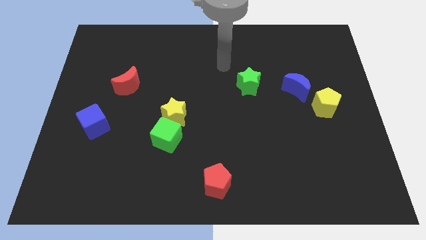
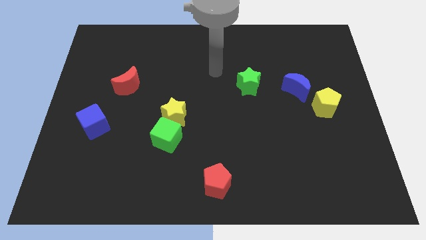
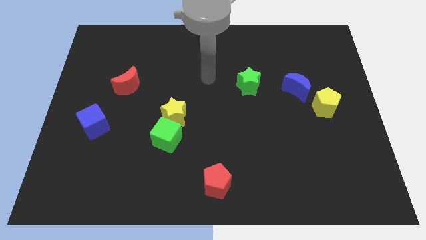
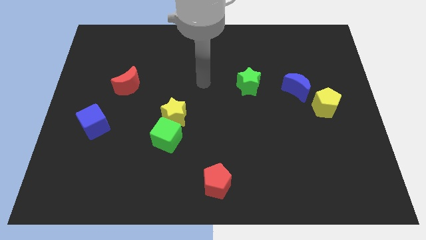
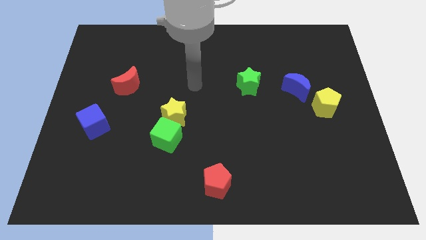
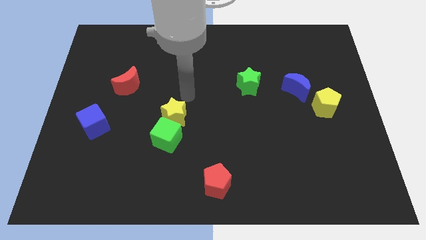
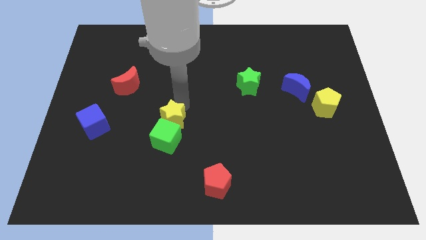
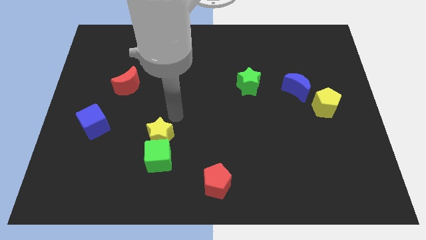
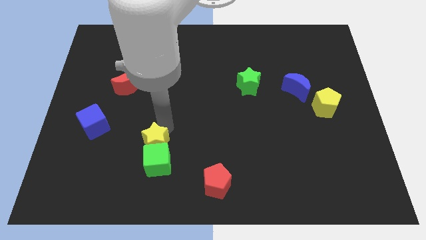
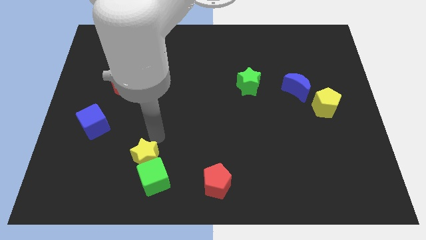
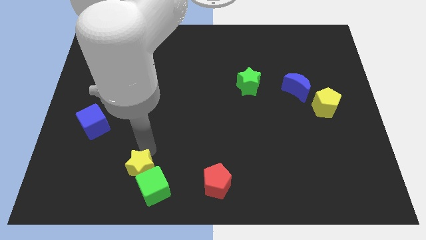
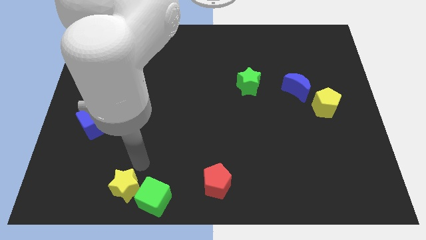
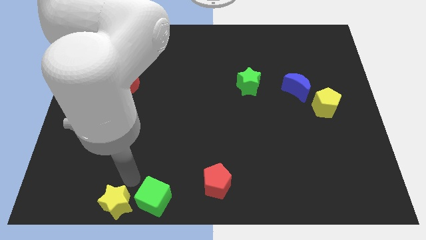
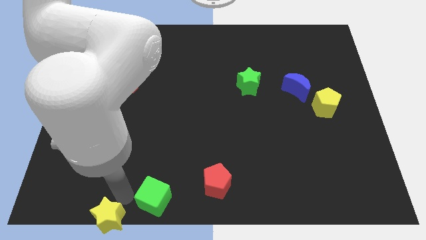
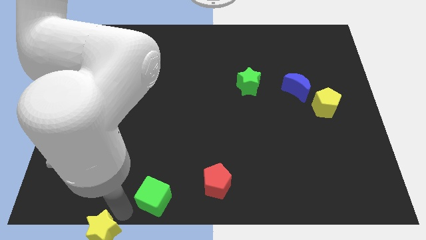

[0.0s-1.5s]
pull the green cube apart from the yellow star

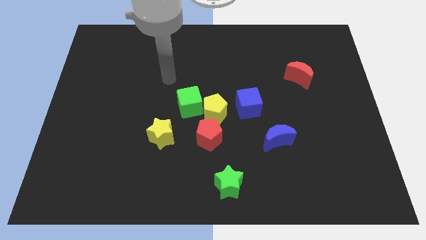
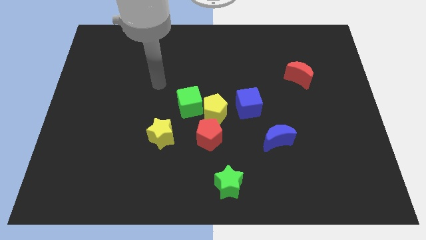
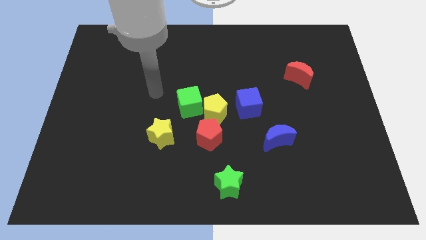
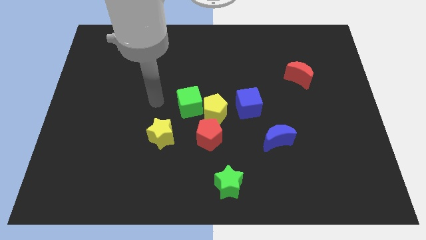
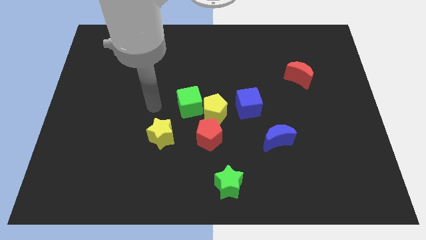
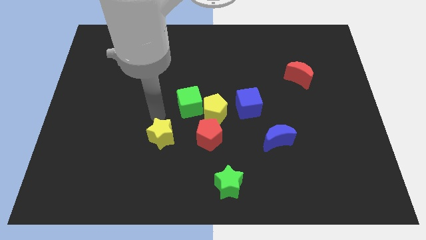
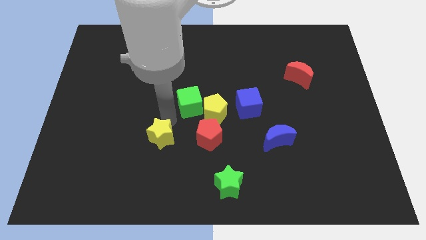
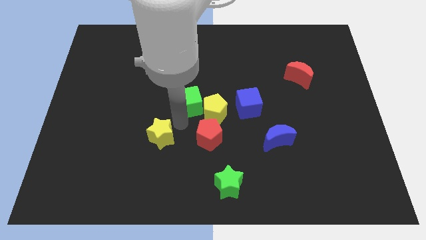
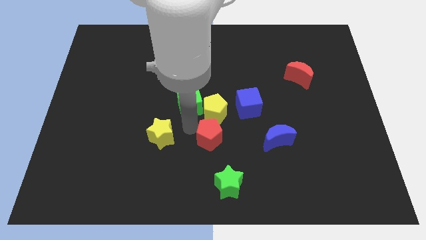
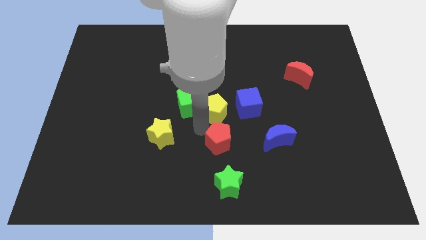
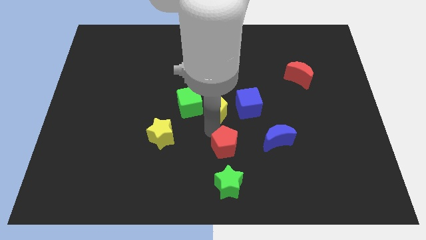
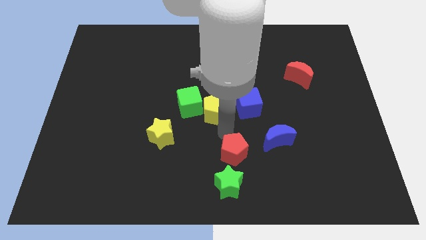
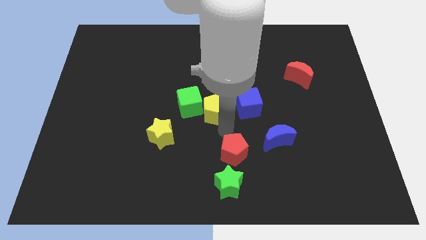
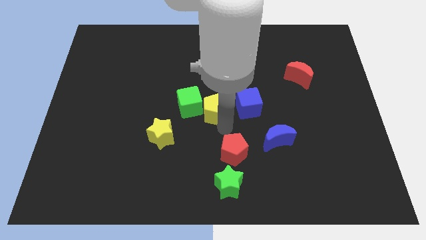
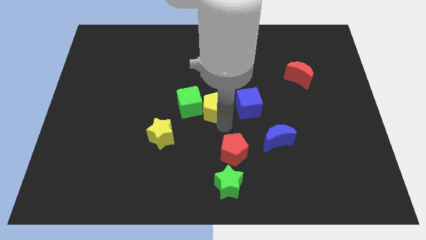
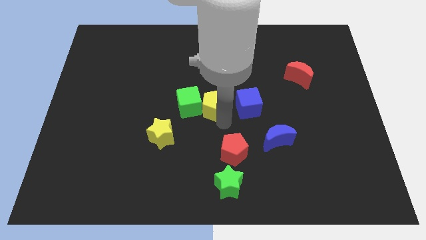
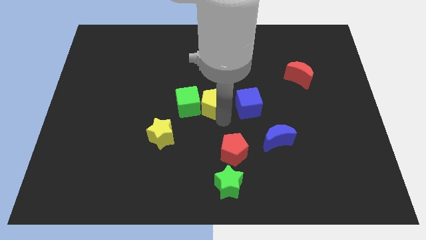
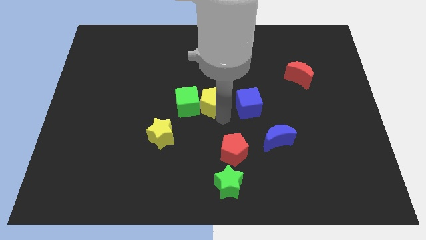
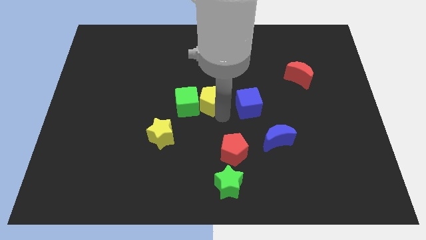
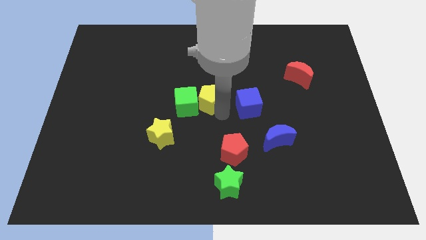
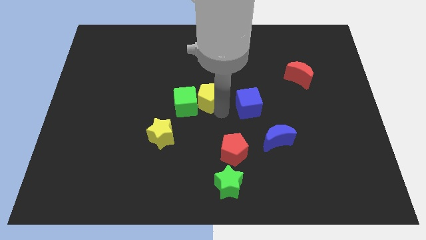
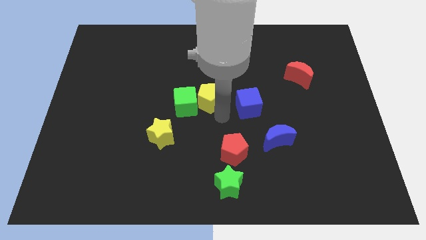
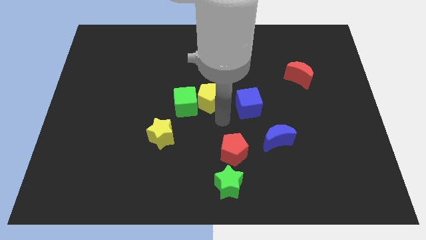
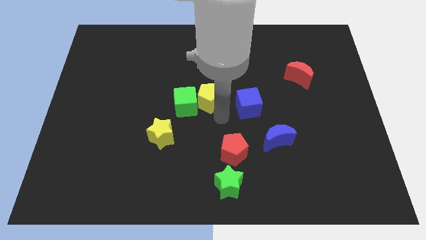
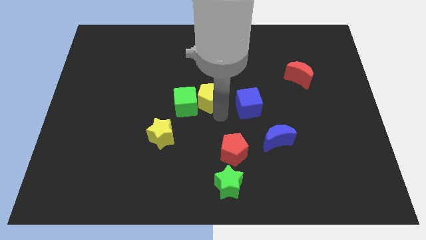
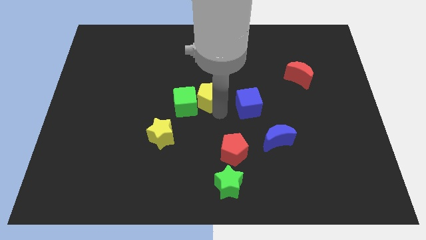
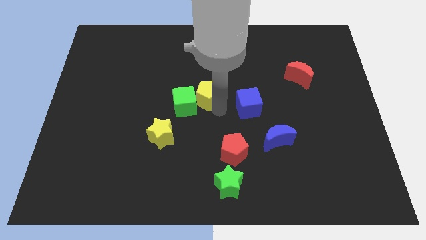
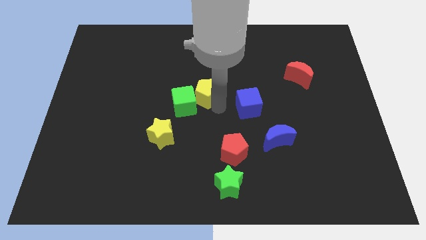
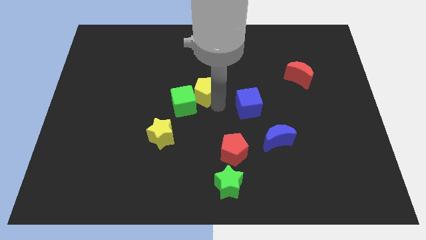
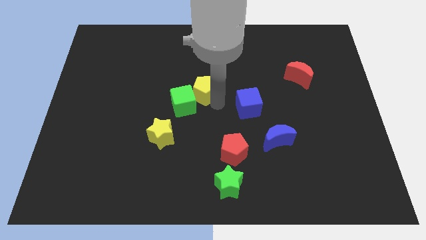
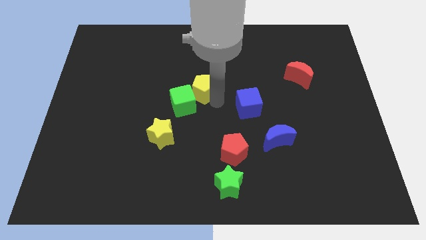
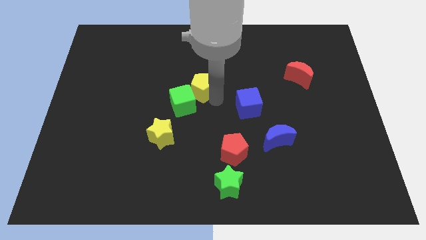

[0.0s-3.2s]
move the yellow pentagon away from the green cube, red pentagon, and blue cube

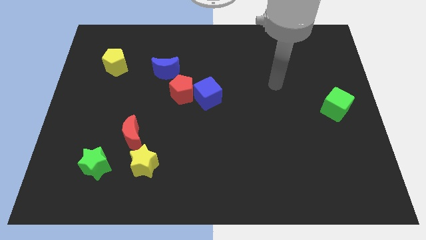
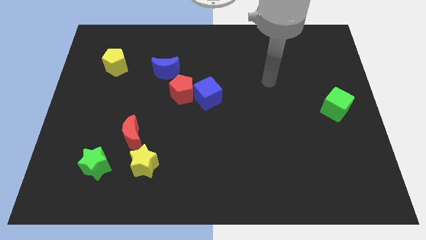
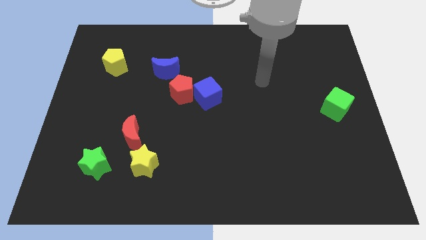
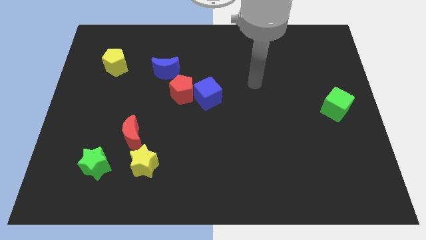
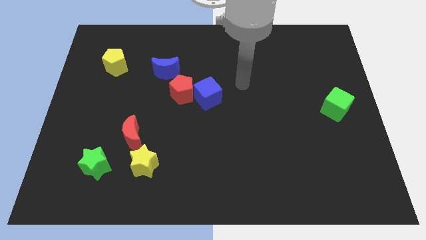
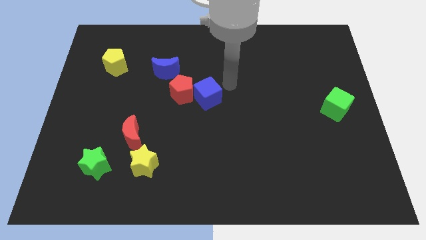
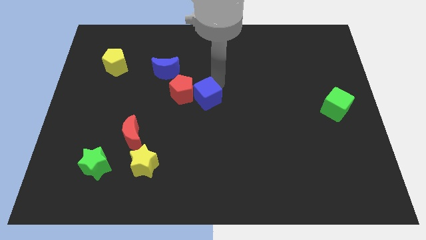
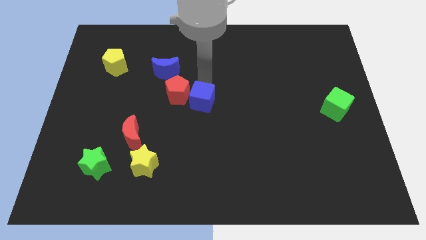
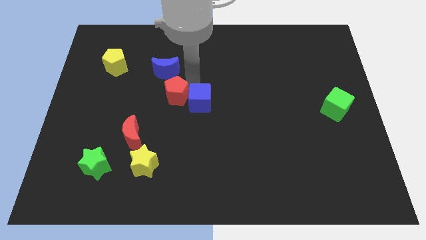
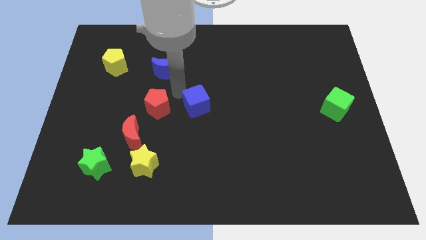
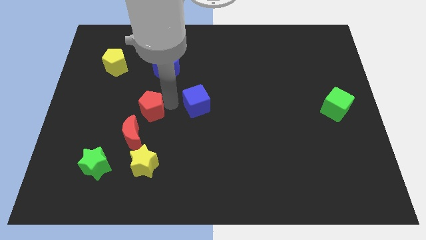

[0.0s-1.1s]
move the blue cube away from the red pentagon

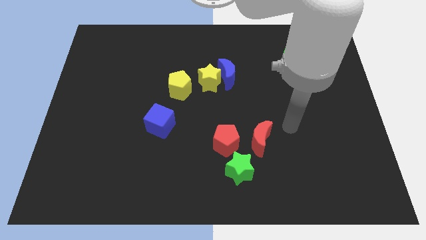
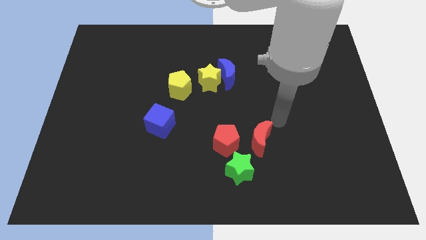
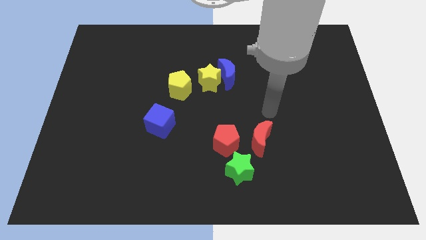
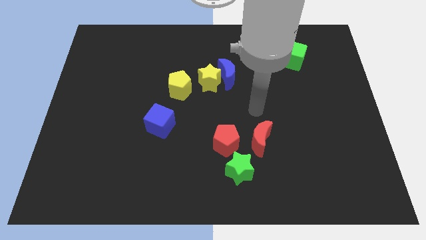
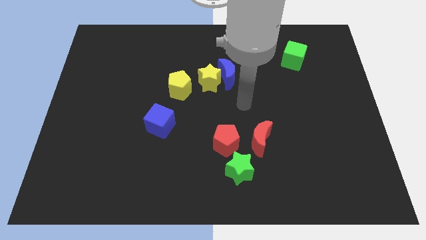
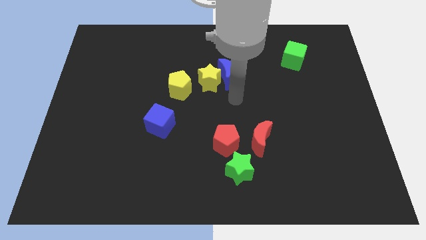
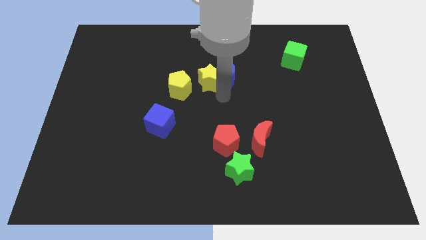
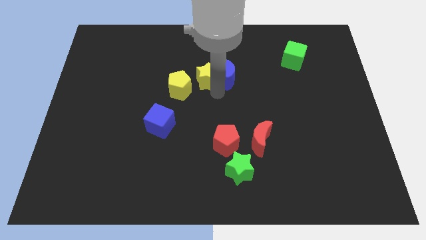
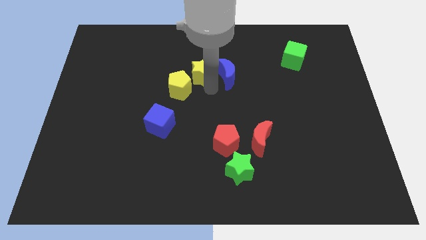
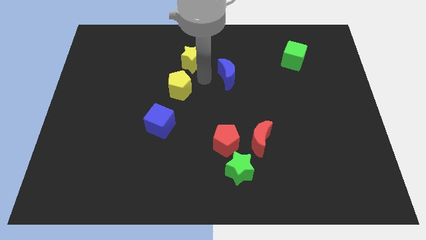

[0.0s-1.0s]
separate the blue moon from the yellow star

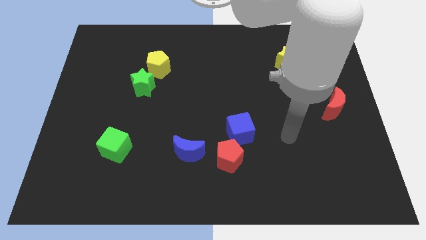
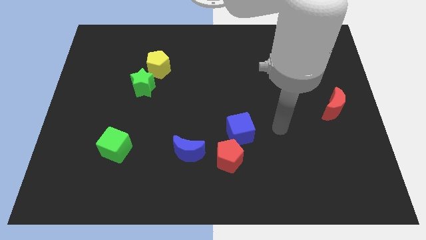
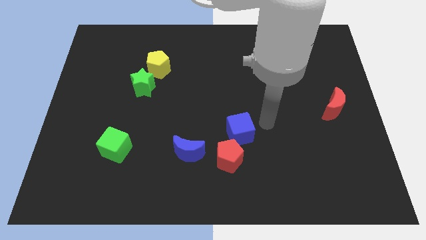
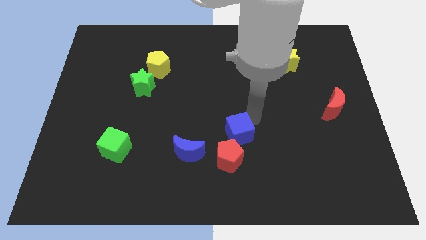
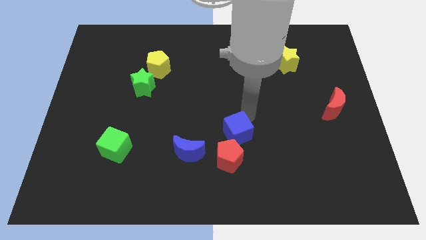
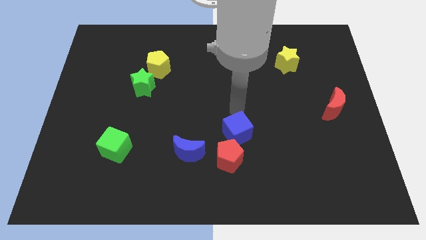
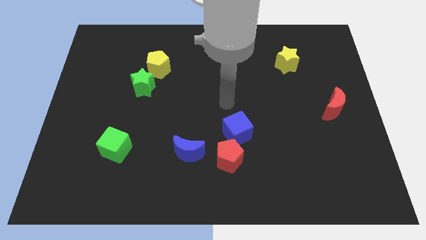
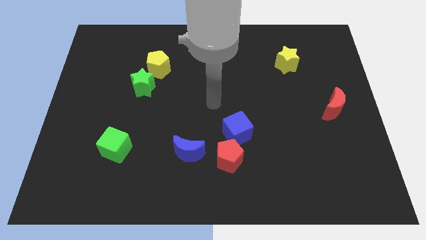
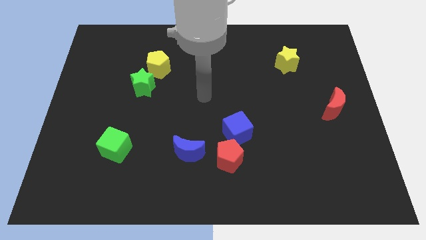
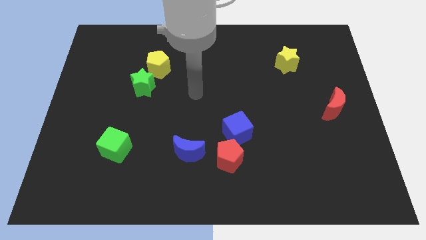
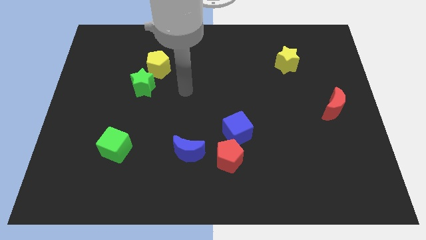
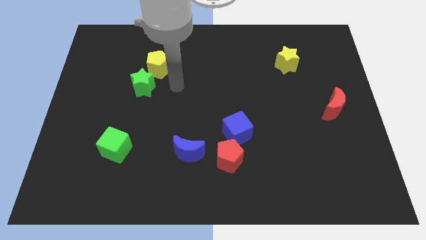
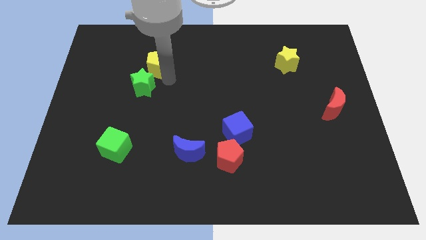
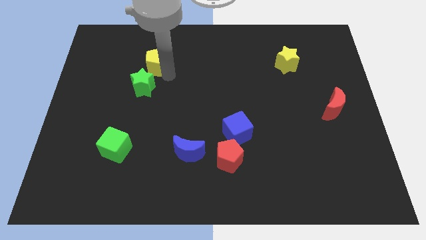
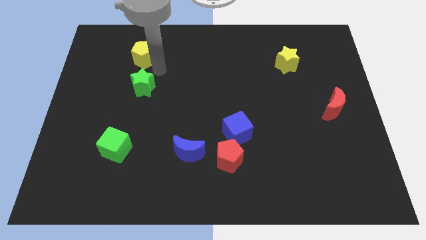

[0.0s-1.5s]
pull the green star apart from the yellow pentagon

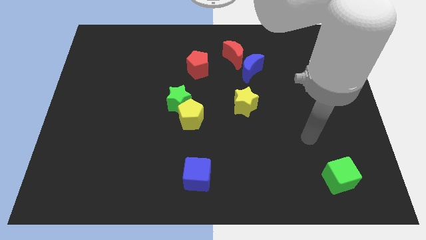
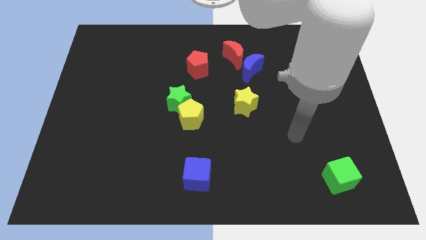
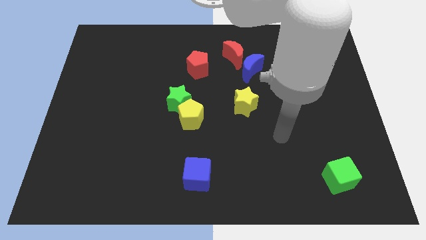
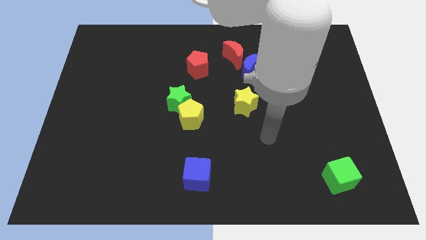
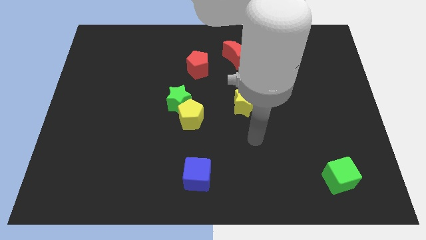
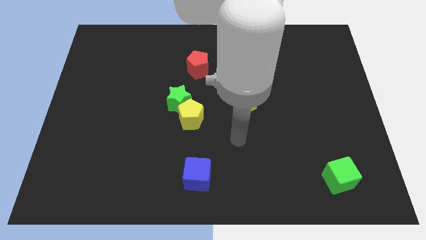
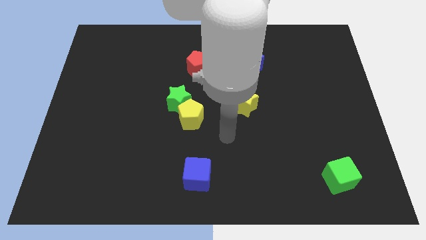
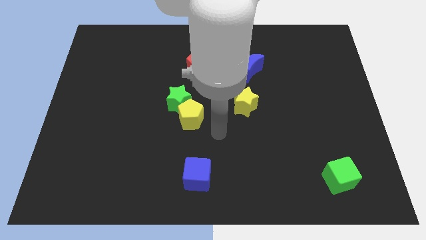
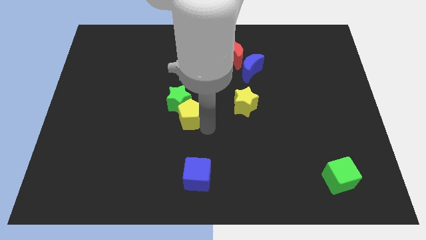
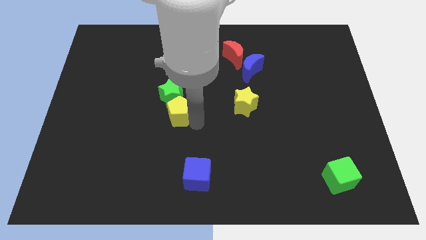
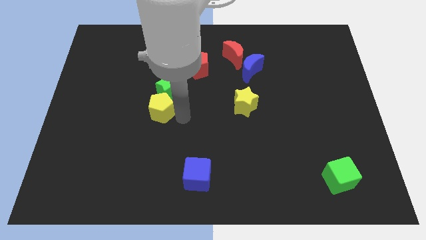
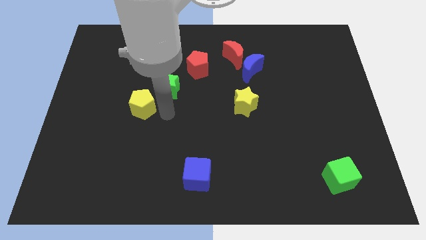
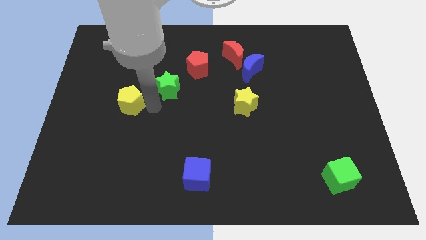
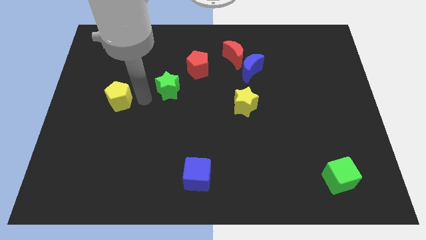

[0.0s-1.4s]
move the green star away from the yellow pentagon
